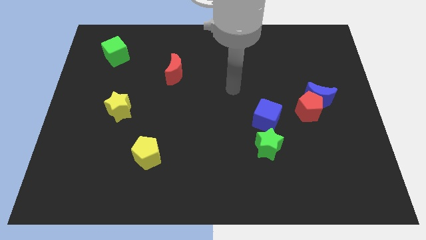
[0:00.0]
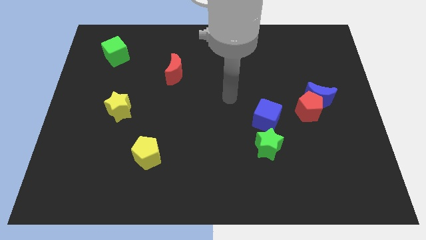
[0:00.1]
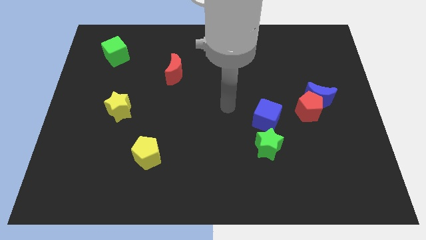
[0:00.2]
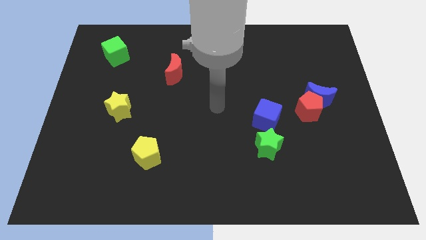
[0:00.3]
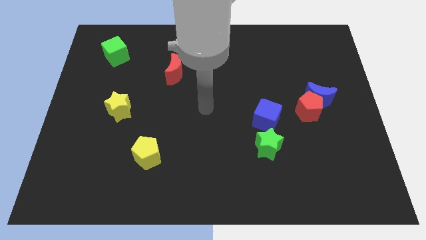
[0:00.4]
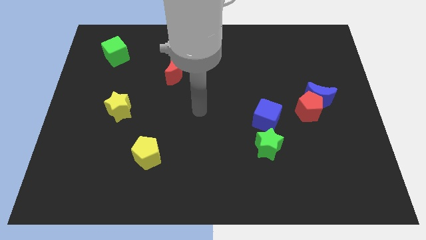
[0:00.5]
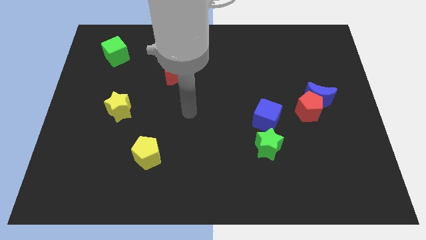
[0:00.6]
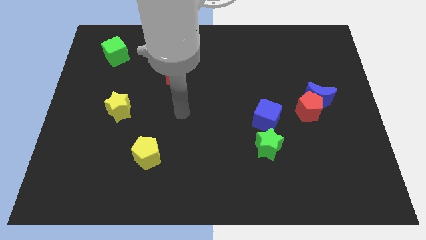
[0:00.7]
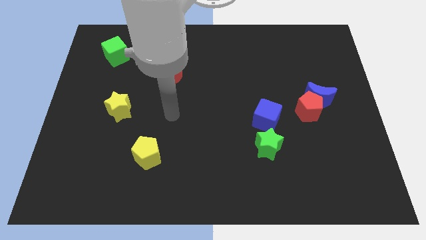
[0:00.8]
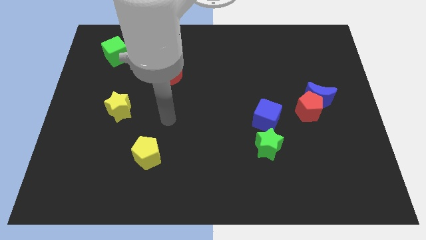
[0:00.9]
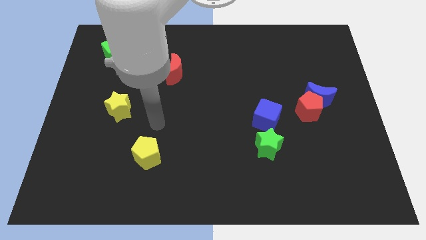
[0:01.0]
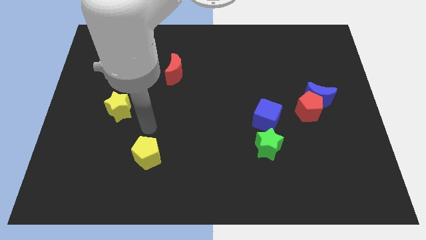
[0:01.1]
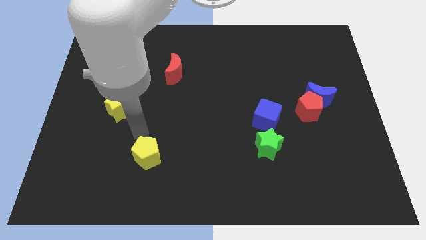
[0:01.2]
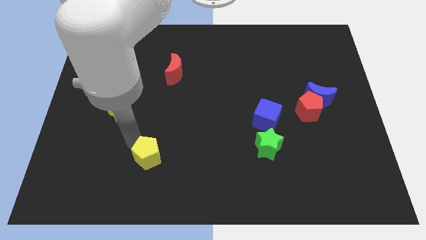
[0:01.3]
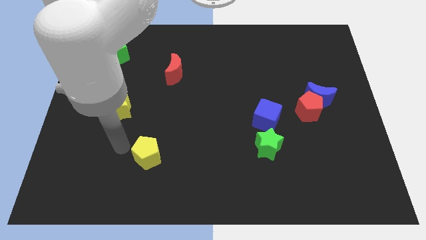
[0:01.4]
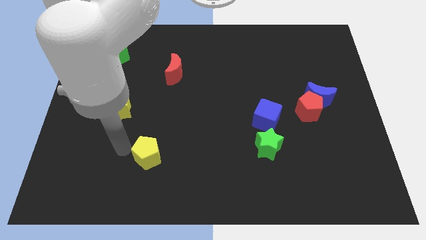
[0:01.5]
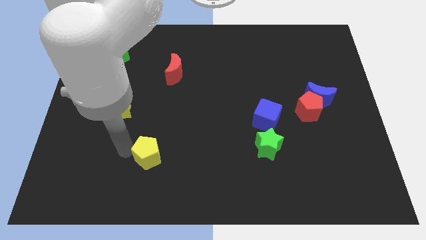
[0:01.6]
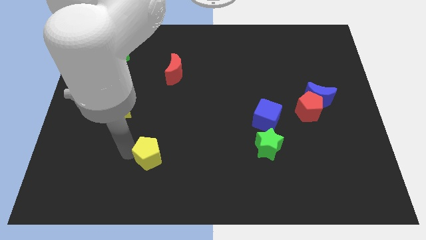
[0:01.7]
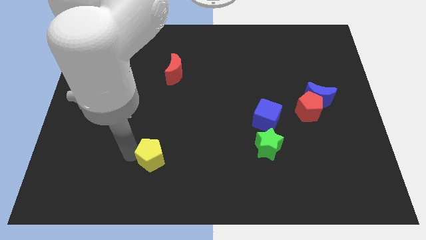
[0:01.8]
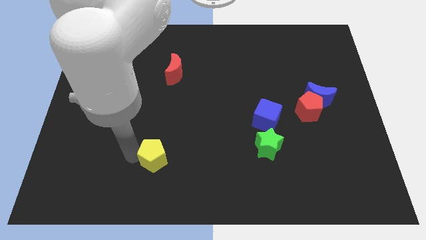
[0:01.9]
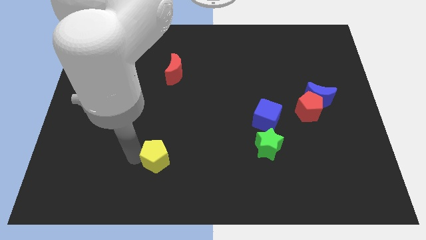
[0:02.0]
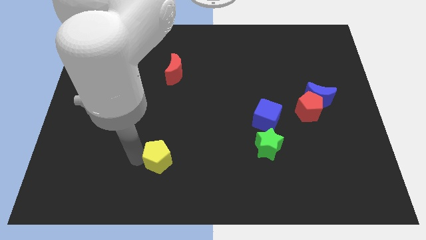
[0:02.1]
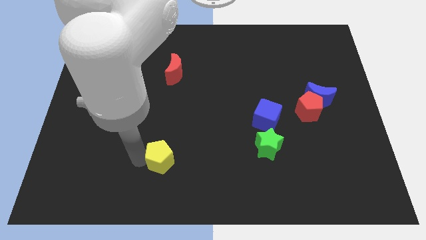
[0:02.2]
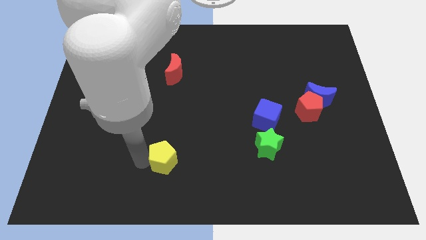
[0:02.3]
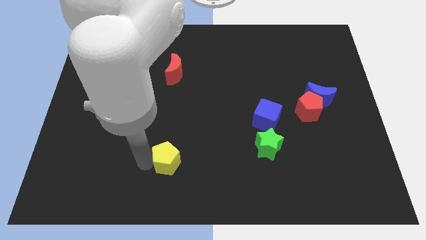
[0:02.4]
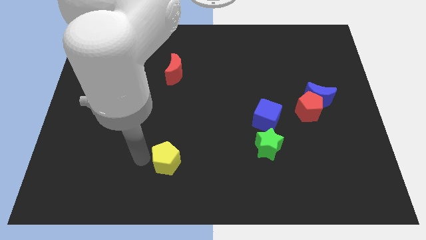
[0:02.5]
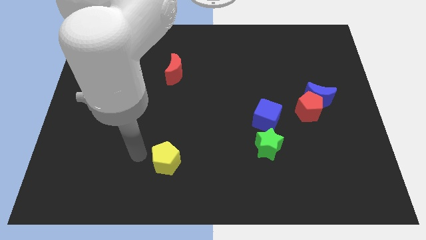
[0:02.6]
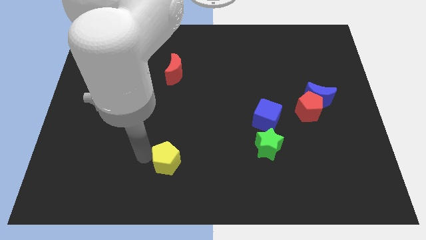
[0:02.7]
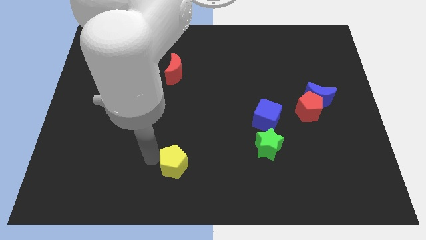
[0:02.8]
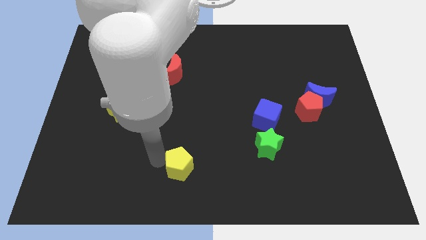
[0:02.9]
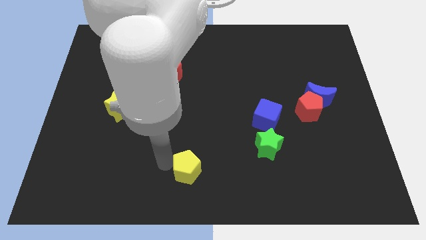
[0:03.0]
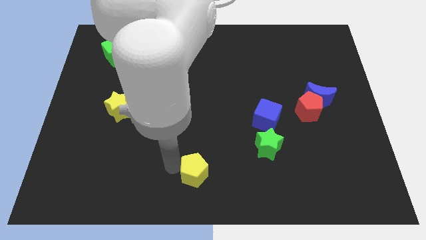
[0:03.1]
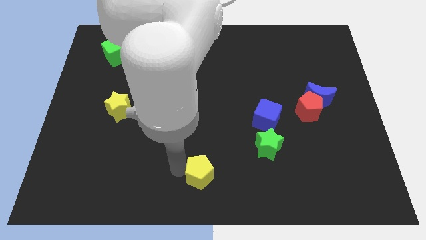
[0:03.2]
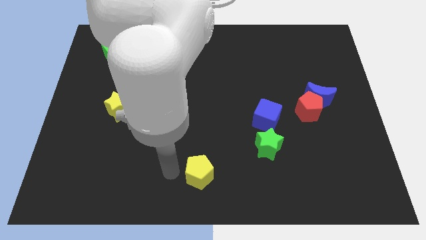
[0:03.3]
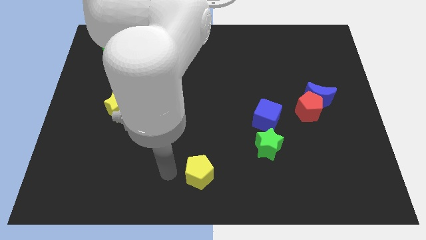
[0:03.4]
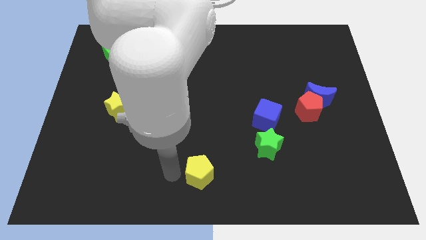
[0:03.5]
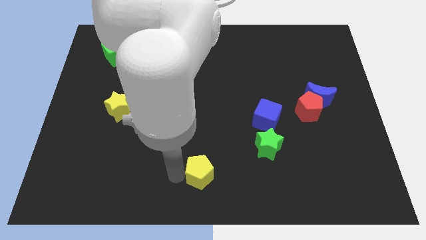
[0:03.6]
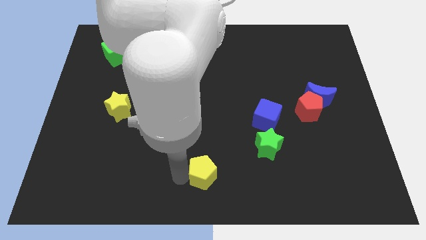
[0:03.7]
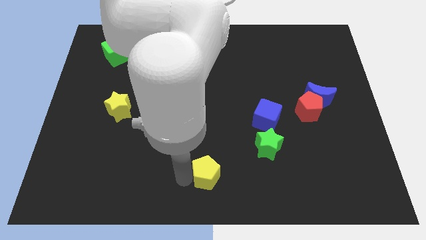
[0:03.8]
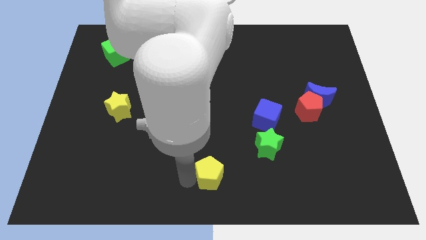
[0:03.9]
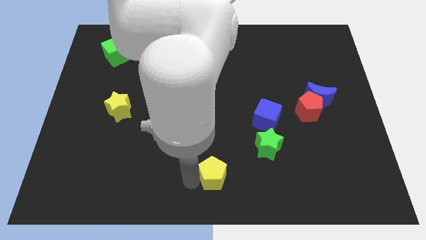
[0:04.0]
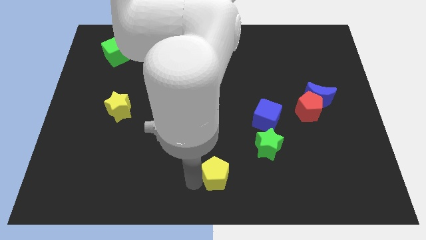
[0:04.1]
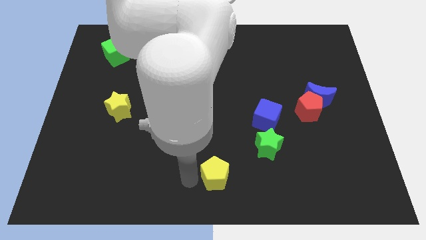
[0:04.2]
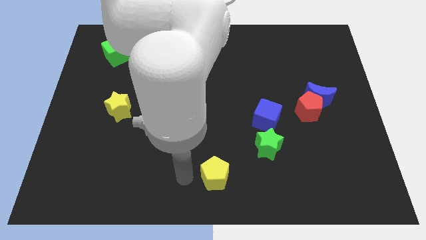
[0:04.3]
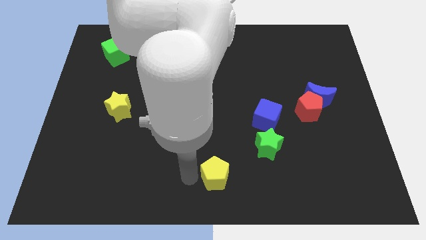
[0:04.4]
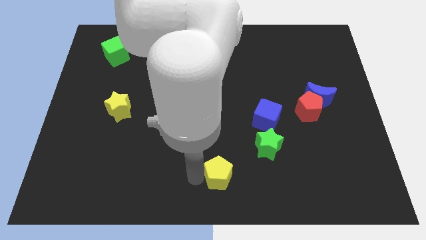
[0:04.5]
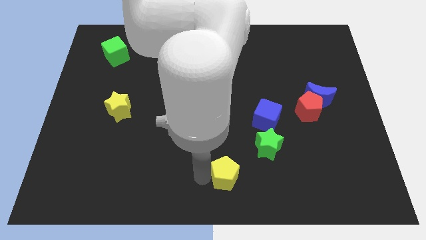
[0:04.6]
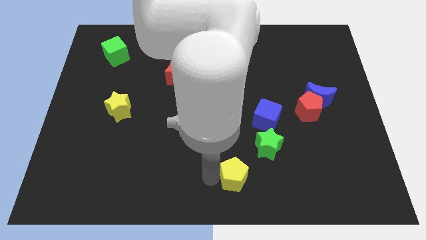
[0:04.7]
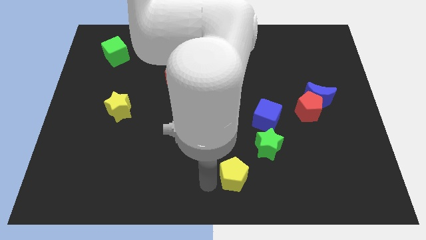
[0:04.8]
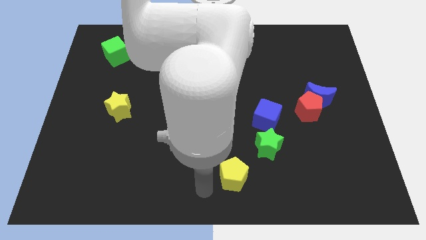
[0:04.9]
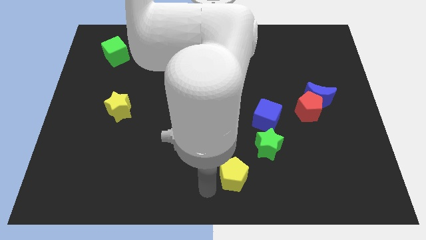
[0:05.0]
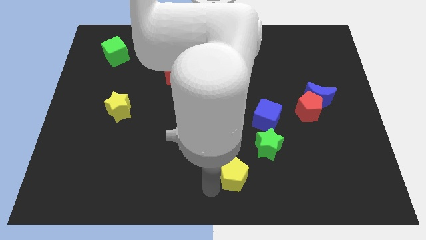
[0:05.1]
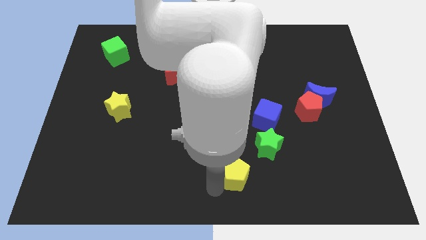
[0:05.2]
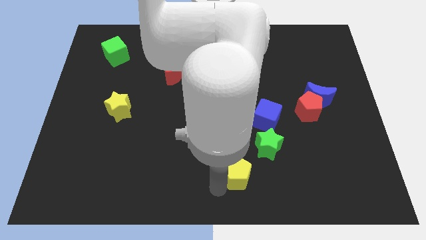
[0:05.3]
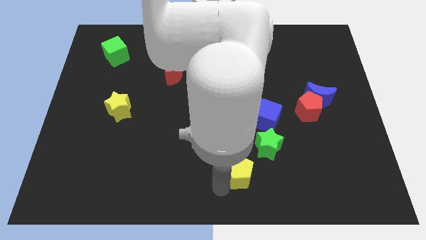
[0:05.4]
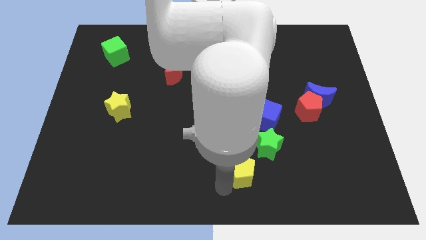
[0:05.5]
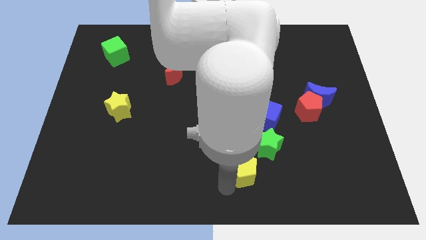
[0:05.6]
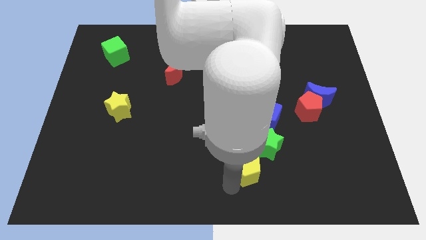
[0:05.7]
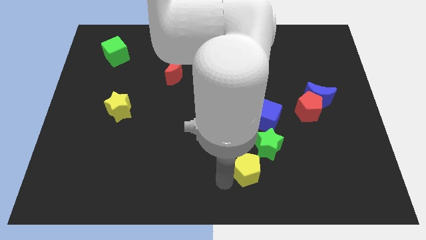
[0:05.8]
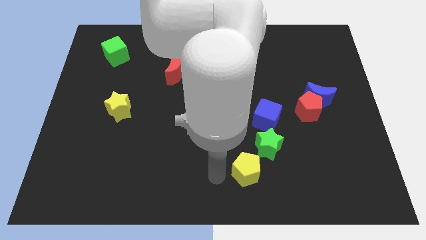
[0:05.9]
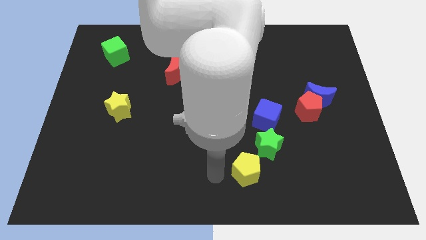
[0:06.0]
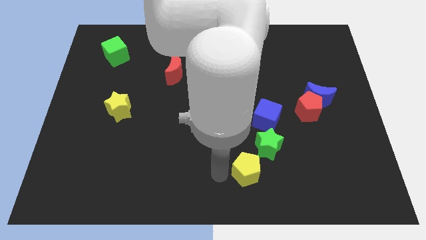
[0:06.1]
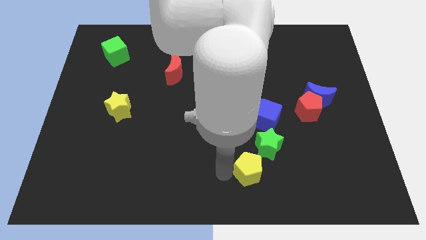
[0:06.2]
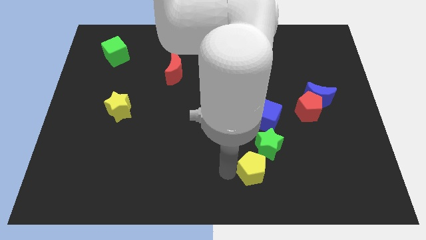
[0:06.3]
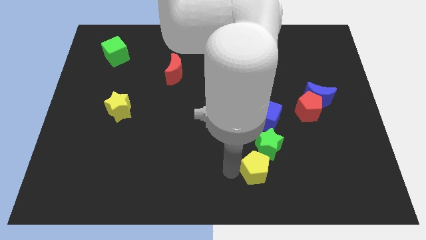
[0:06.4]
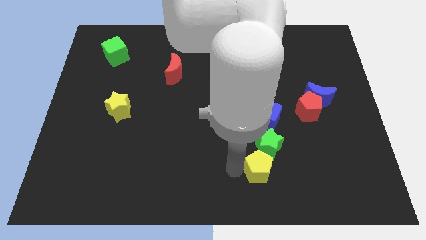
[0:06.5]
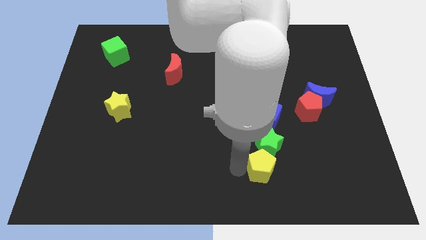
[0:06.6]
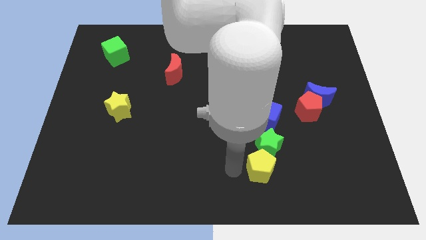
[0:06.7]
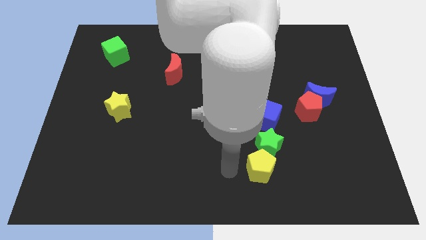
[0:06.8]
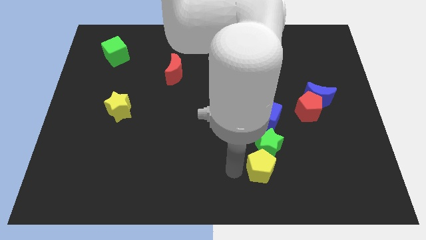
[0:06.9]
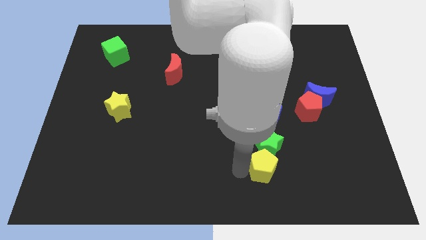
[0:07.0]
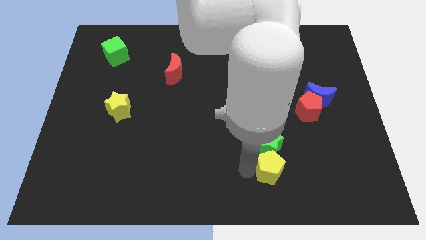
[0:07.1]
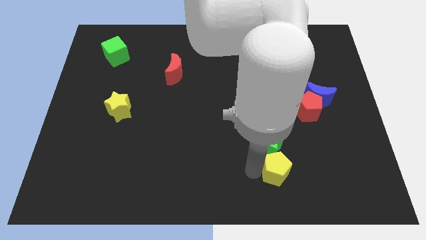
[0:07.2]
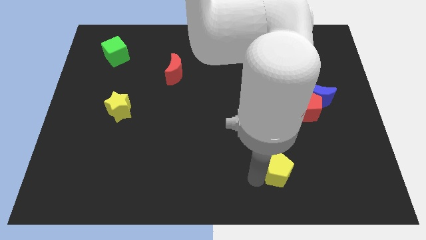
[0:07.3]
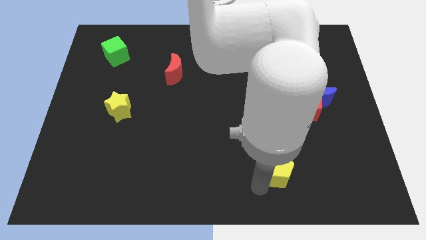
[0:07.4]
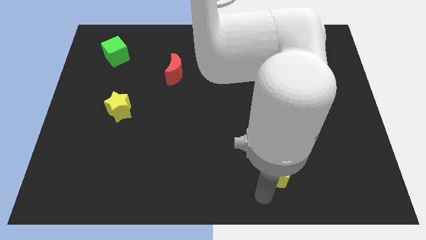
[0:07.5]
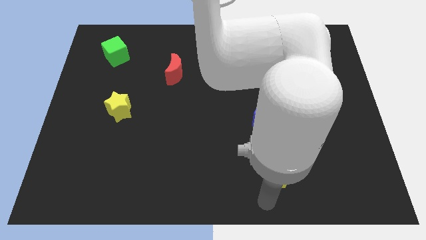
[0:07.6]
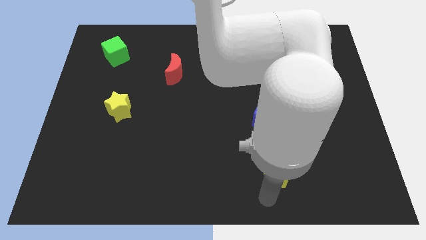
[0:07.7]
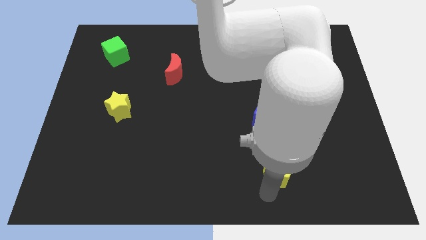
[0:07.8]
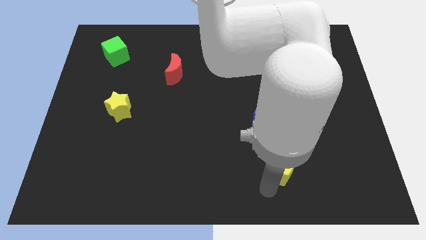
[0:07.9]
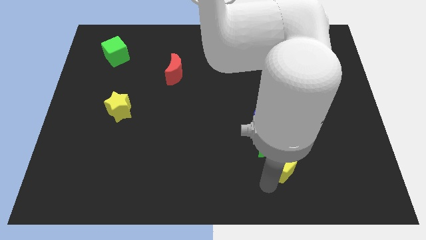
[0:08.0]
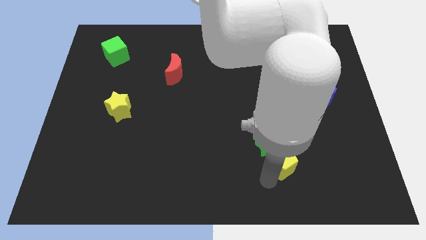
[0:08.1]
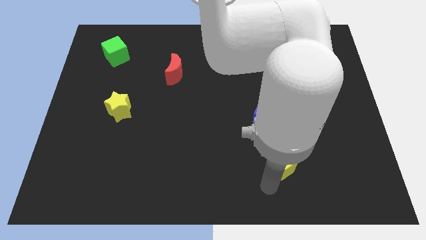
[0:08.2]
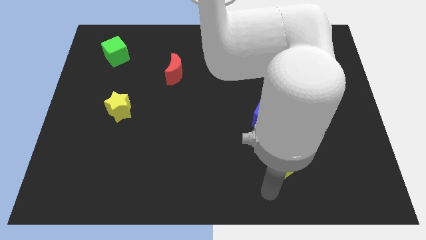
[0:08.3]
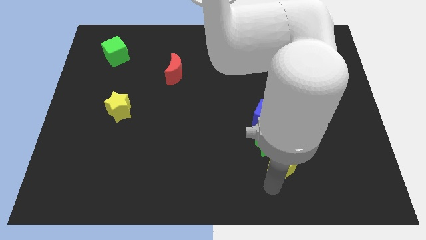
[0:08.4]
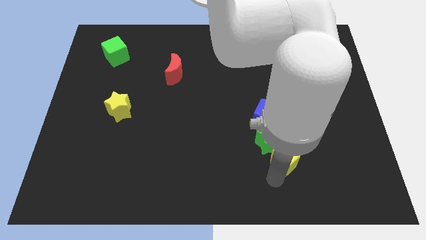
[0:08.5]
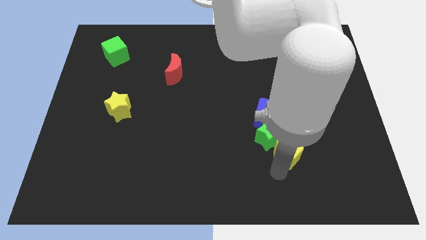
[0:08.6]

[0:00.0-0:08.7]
move the yellow pentagon to the bottom right side of the blue cube
